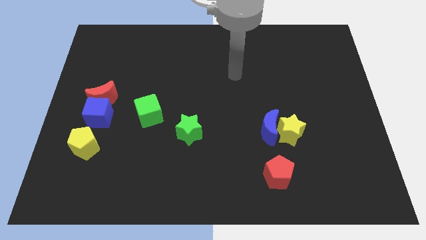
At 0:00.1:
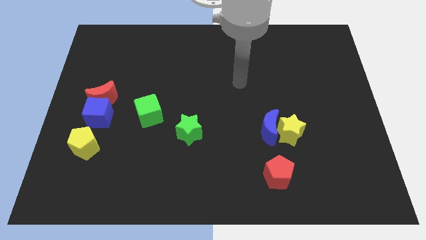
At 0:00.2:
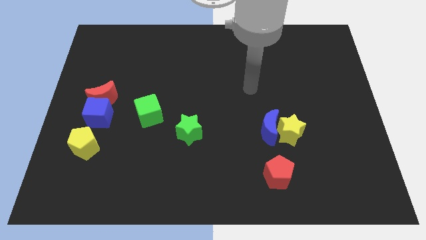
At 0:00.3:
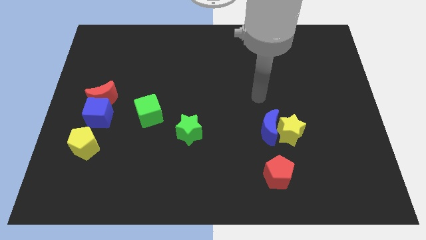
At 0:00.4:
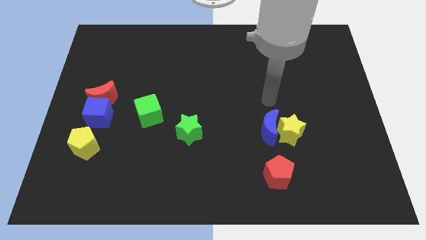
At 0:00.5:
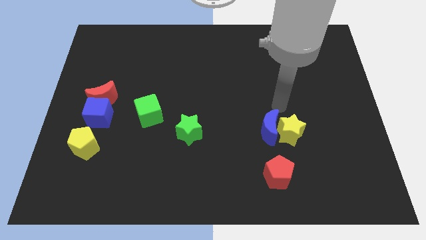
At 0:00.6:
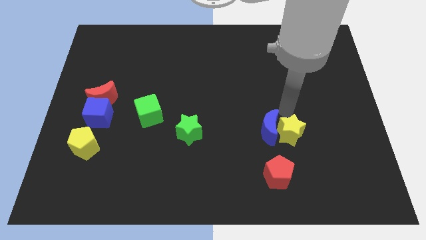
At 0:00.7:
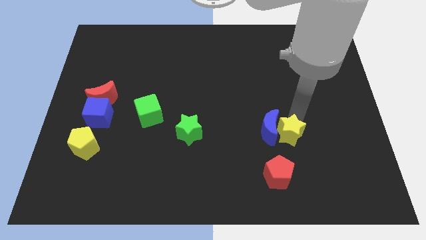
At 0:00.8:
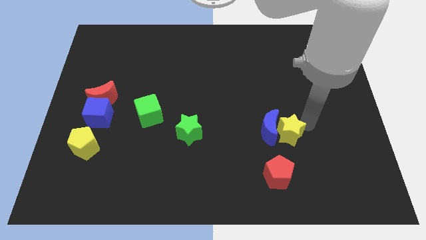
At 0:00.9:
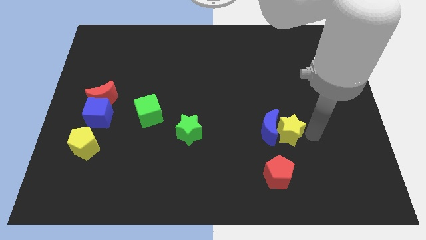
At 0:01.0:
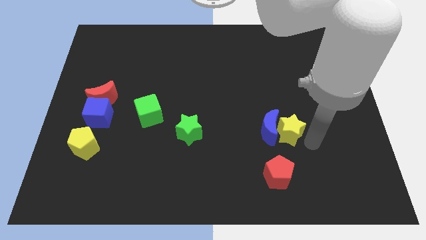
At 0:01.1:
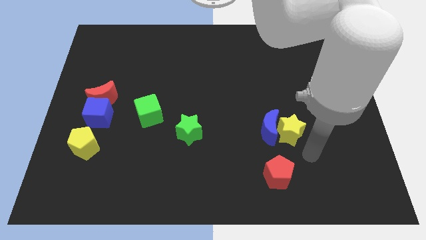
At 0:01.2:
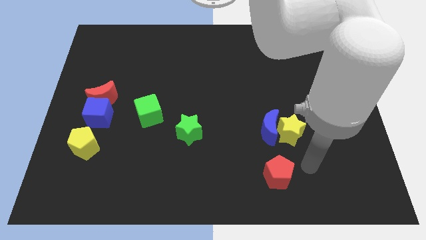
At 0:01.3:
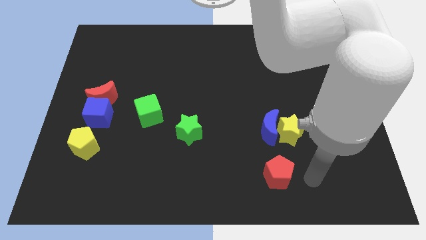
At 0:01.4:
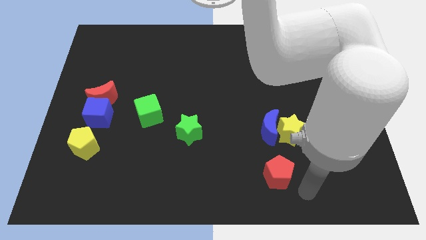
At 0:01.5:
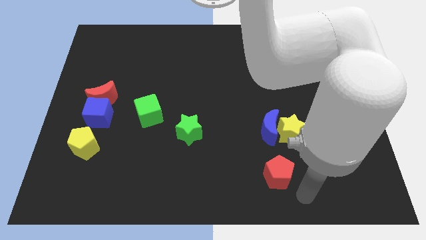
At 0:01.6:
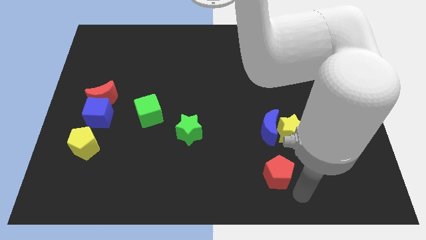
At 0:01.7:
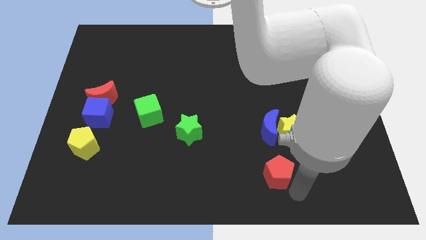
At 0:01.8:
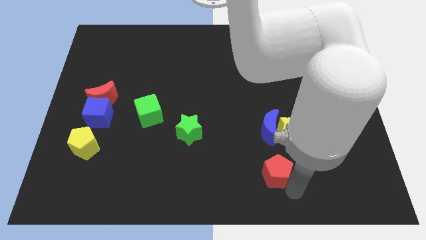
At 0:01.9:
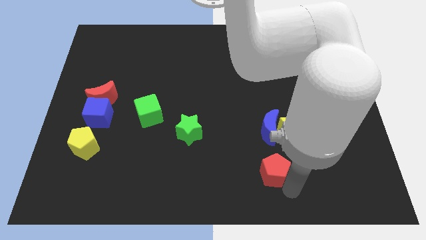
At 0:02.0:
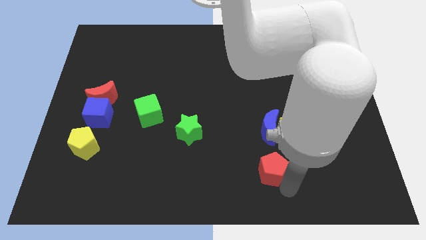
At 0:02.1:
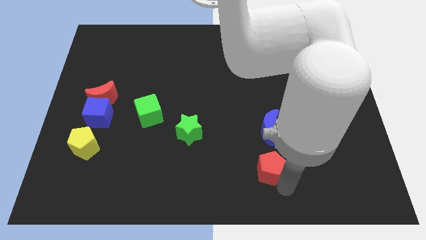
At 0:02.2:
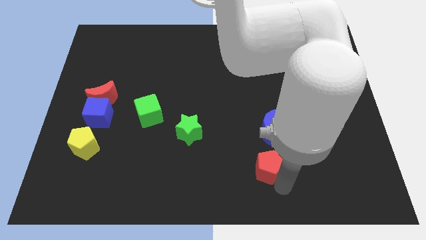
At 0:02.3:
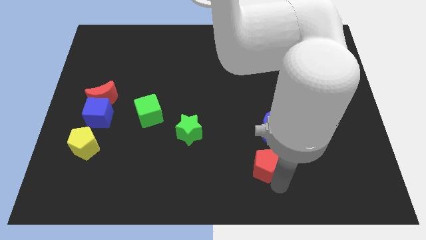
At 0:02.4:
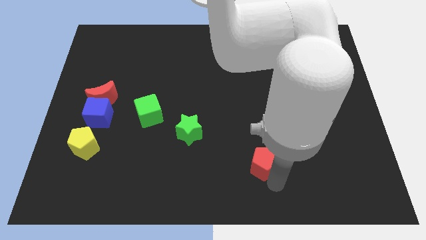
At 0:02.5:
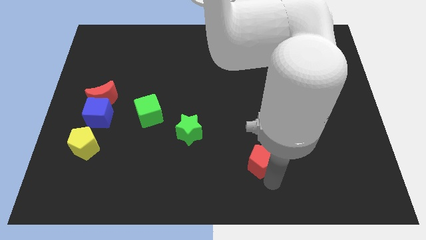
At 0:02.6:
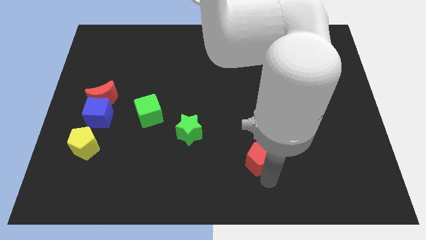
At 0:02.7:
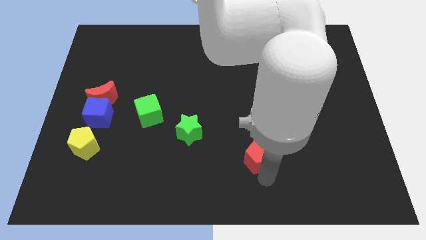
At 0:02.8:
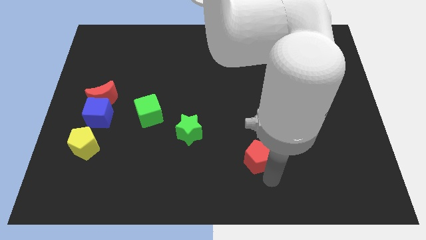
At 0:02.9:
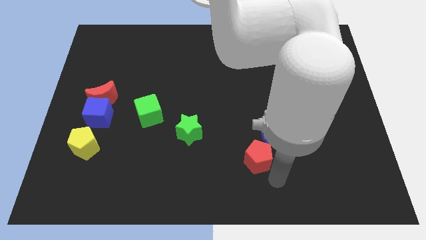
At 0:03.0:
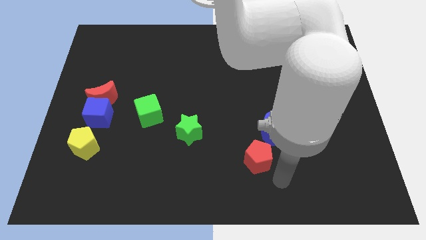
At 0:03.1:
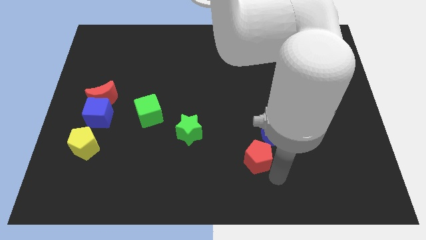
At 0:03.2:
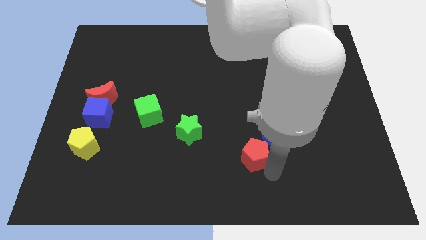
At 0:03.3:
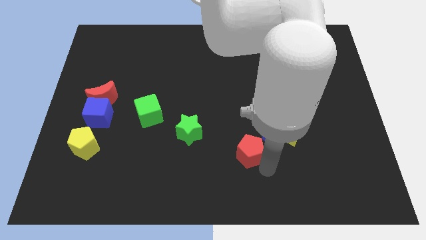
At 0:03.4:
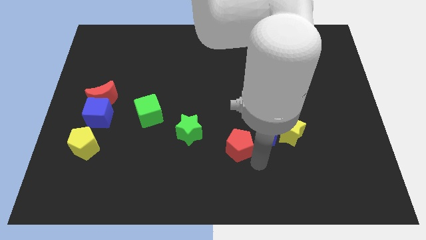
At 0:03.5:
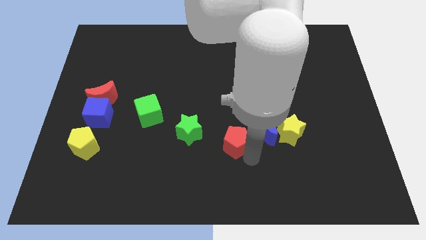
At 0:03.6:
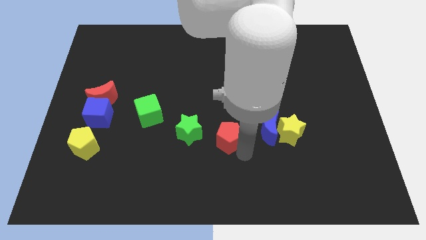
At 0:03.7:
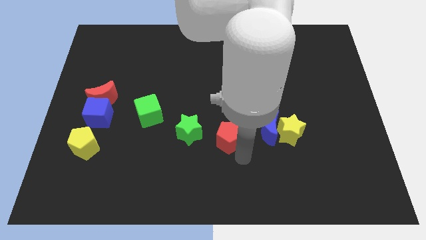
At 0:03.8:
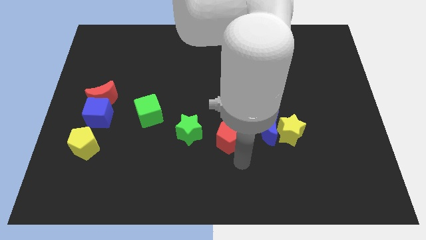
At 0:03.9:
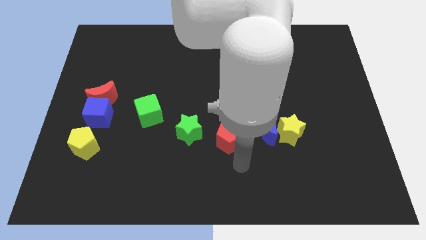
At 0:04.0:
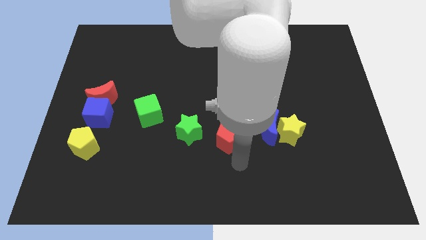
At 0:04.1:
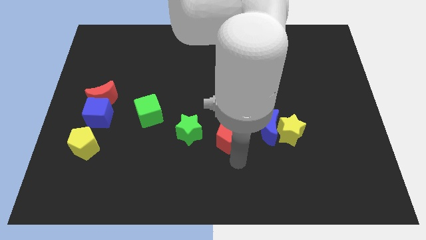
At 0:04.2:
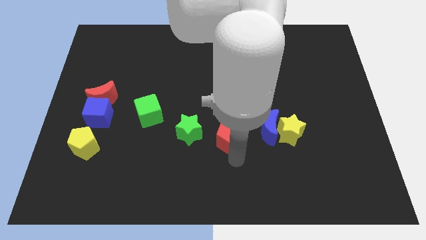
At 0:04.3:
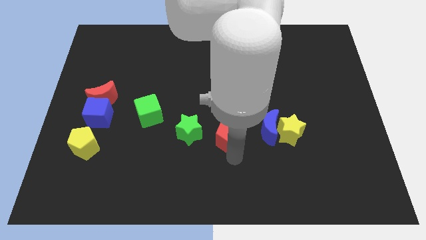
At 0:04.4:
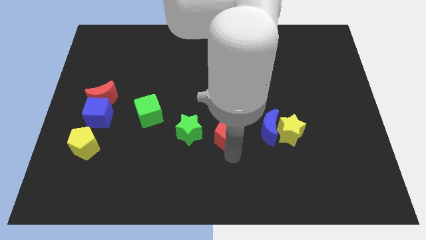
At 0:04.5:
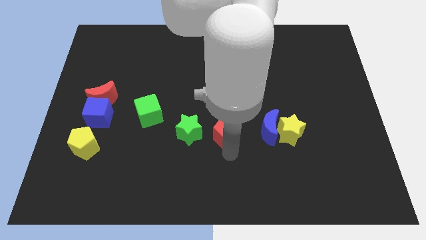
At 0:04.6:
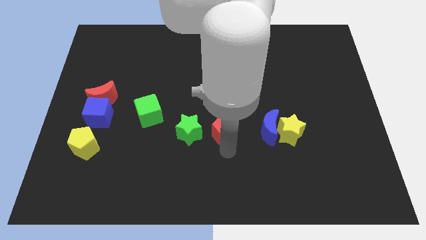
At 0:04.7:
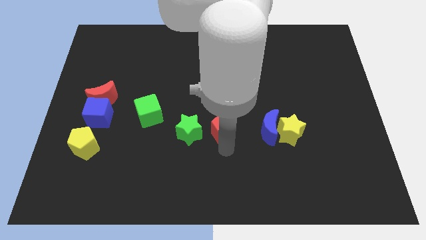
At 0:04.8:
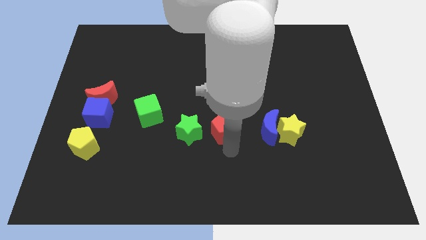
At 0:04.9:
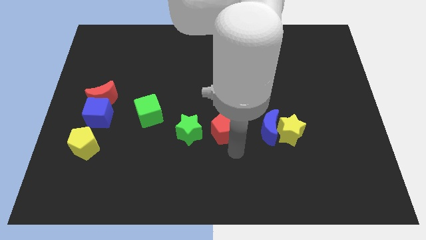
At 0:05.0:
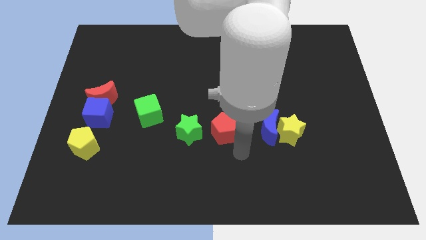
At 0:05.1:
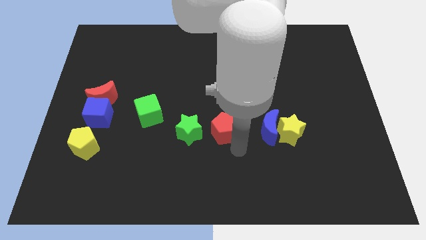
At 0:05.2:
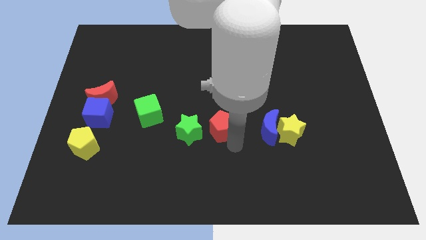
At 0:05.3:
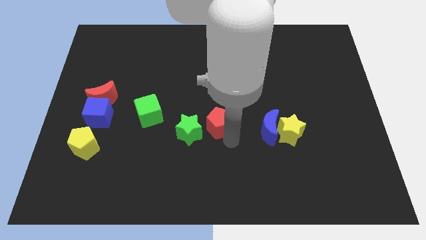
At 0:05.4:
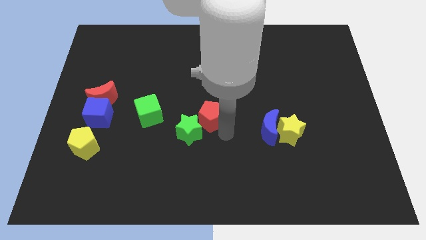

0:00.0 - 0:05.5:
push the red pentagon diagonally up and to the left

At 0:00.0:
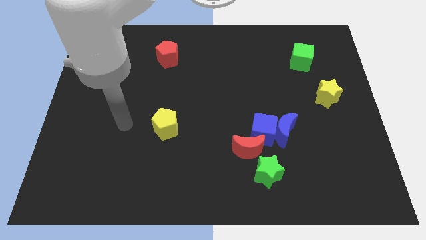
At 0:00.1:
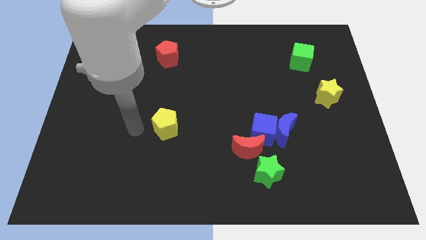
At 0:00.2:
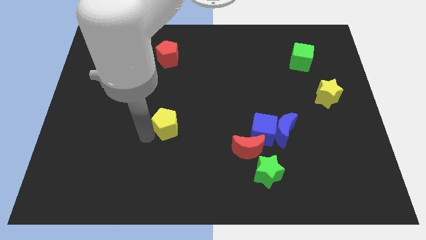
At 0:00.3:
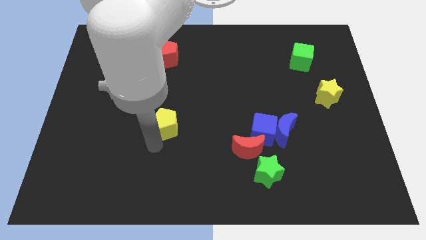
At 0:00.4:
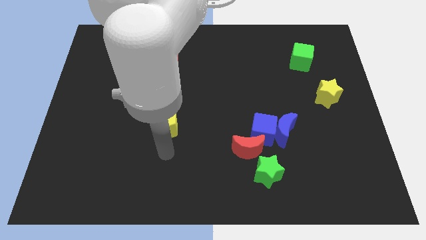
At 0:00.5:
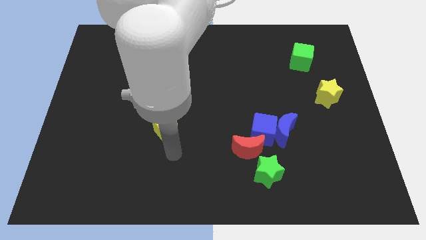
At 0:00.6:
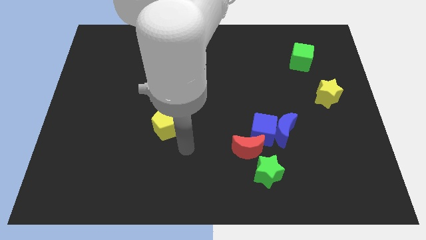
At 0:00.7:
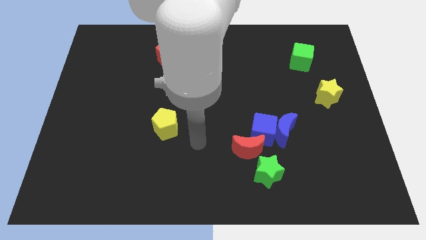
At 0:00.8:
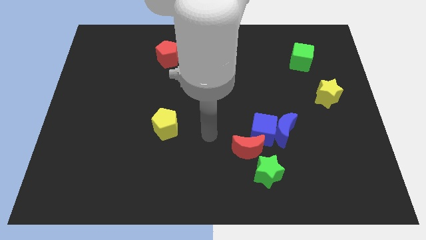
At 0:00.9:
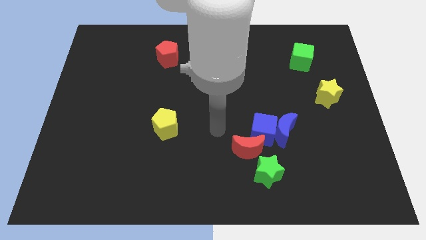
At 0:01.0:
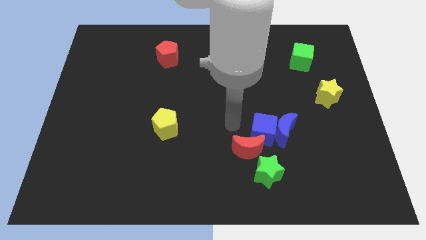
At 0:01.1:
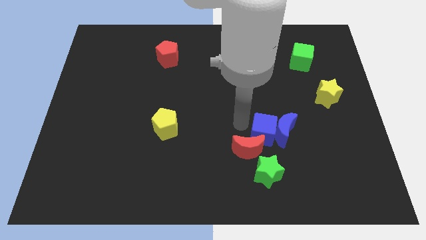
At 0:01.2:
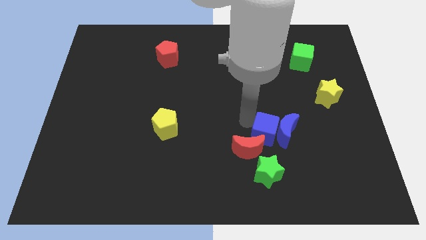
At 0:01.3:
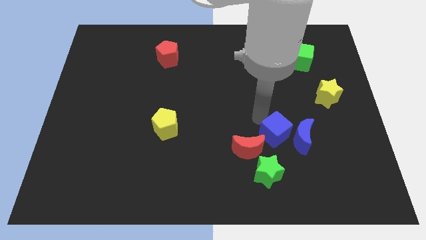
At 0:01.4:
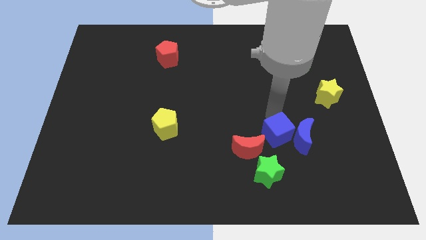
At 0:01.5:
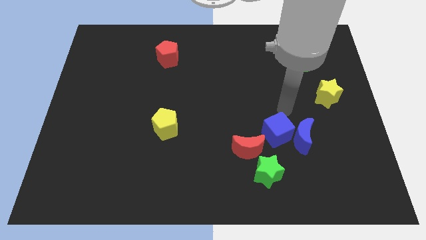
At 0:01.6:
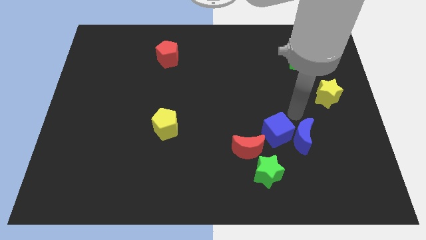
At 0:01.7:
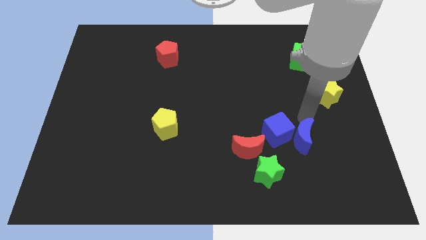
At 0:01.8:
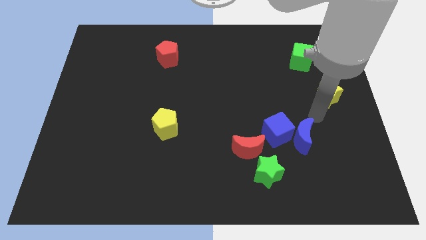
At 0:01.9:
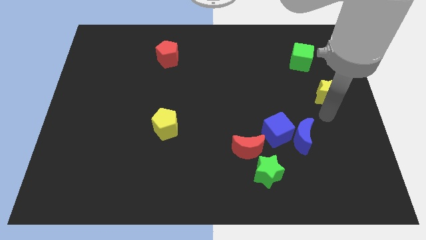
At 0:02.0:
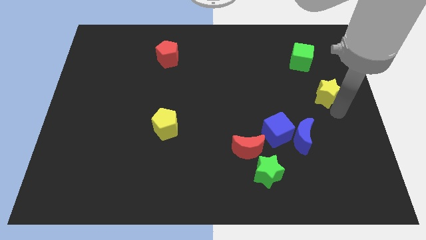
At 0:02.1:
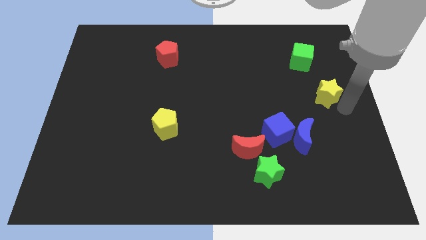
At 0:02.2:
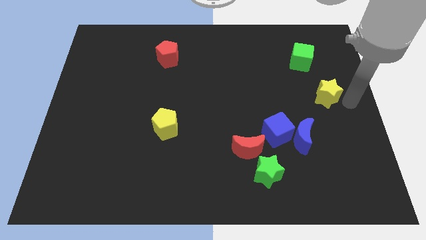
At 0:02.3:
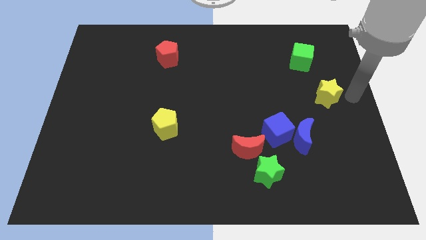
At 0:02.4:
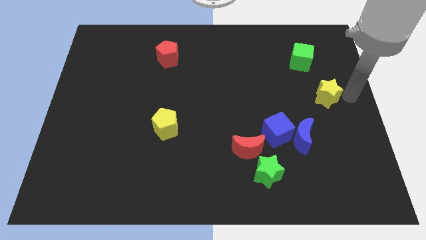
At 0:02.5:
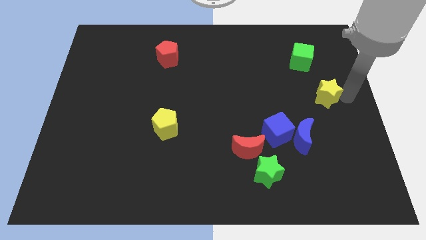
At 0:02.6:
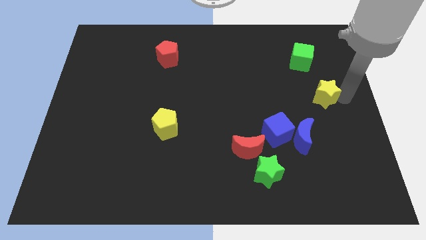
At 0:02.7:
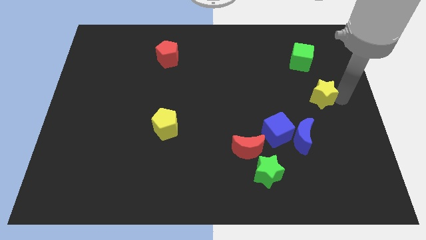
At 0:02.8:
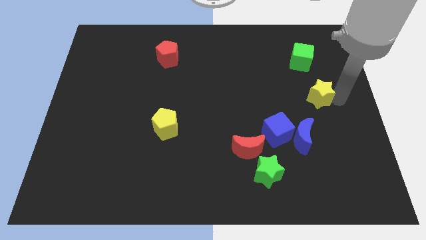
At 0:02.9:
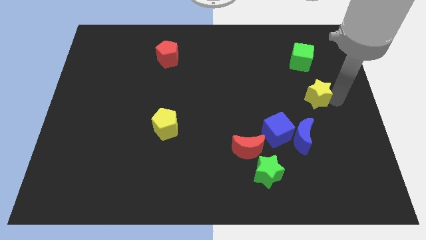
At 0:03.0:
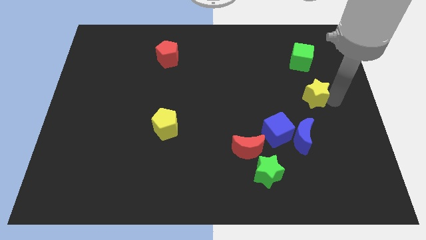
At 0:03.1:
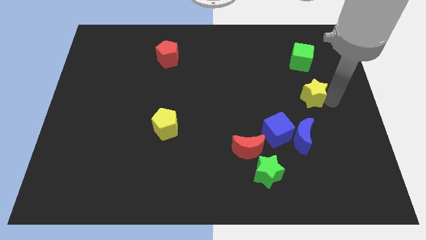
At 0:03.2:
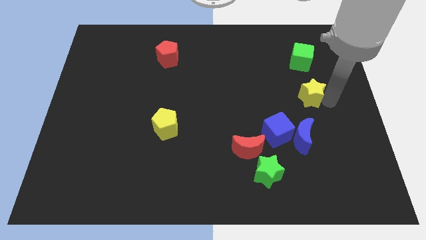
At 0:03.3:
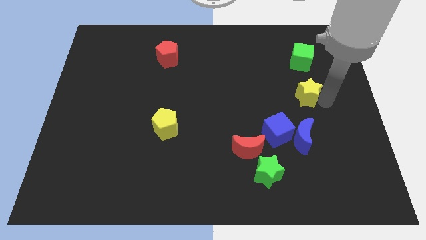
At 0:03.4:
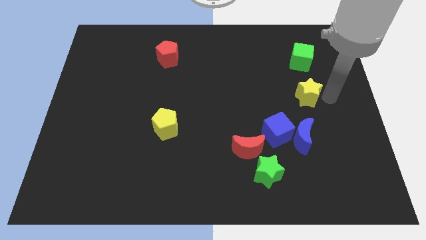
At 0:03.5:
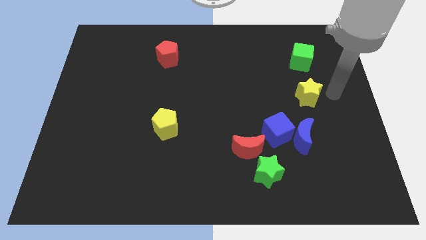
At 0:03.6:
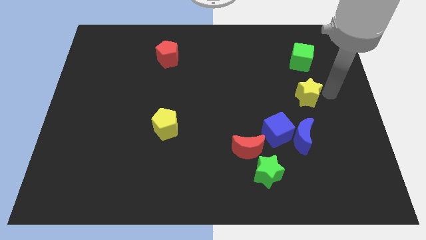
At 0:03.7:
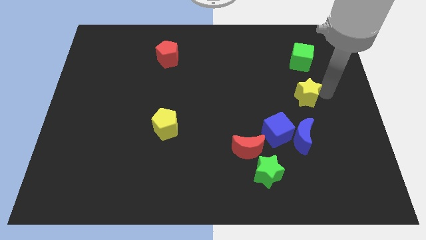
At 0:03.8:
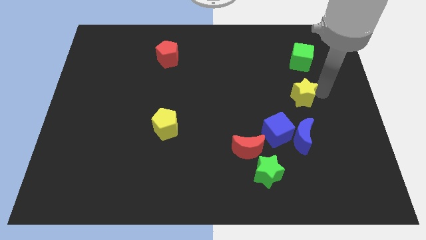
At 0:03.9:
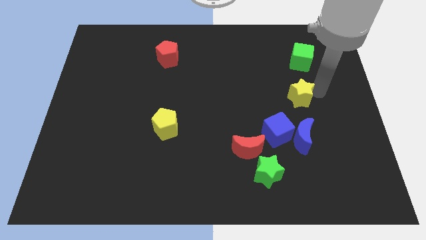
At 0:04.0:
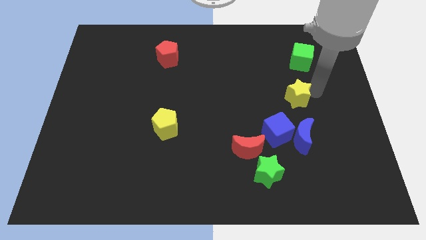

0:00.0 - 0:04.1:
slide the yellow star slightly left
